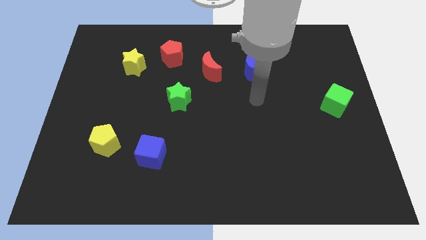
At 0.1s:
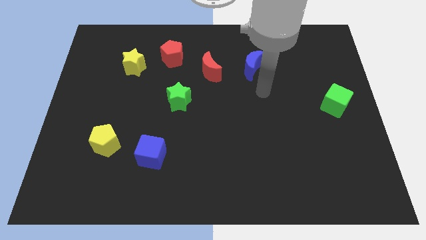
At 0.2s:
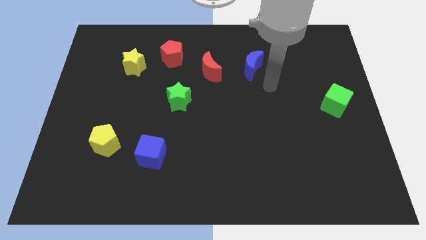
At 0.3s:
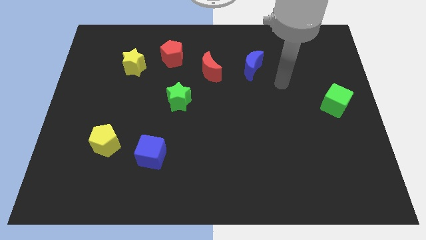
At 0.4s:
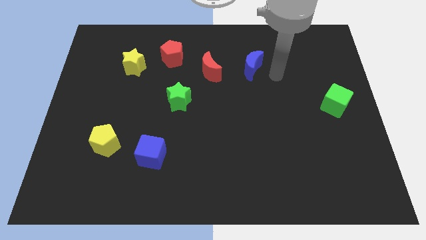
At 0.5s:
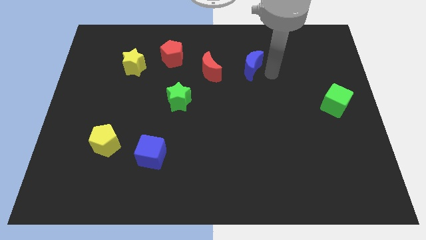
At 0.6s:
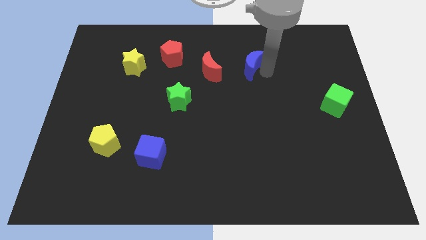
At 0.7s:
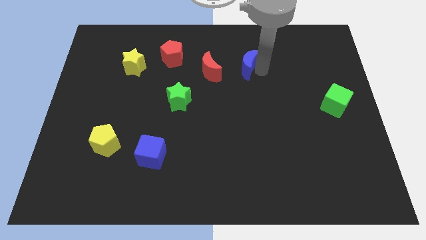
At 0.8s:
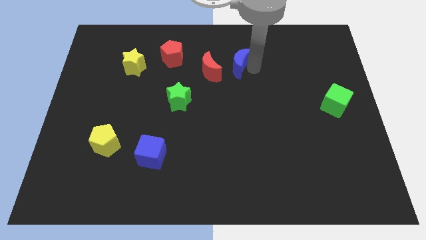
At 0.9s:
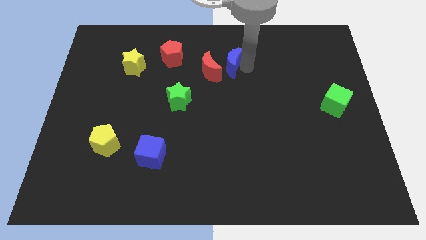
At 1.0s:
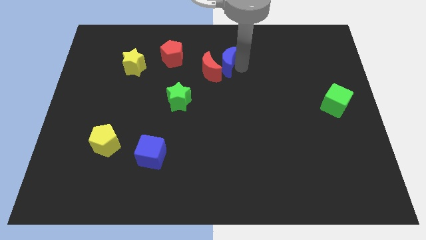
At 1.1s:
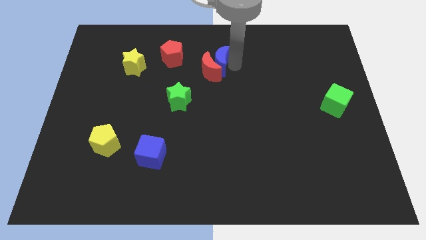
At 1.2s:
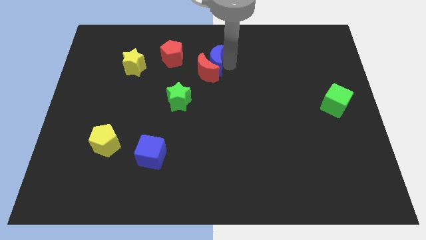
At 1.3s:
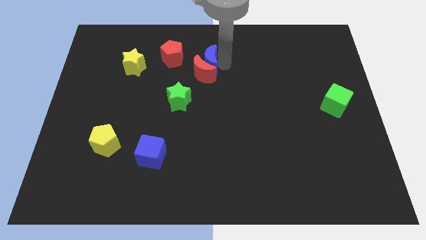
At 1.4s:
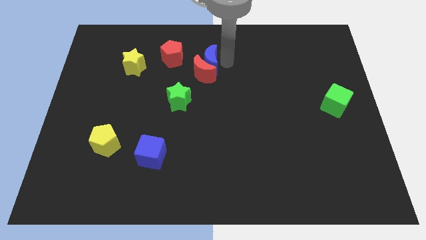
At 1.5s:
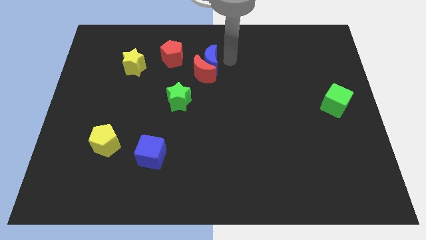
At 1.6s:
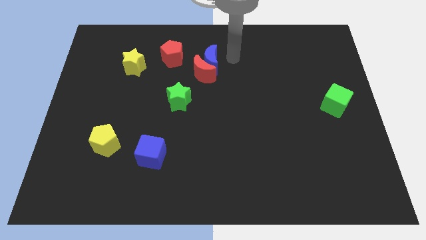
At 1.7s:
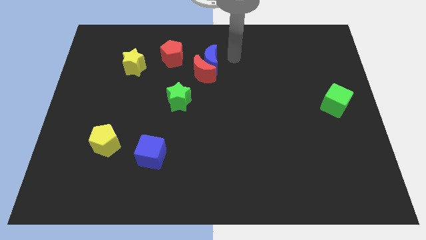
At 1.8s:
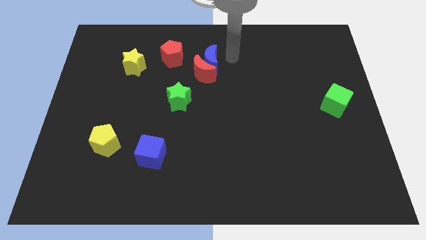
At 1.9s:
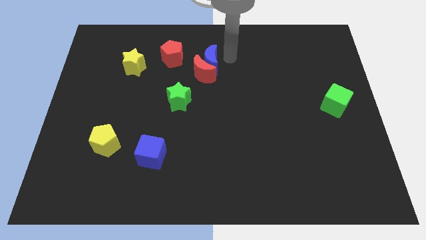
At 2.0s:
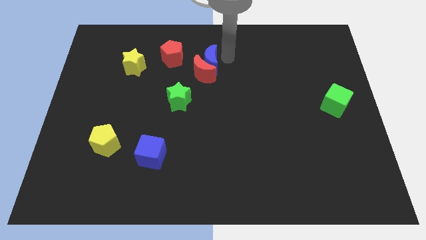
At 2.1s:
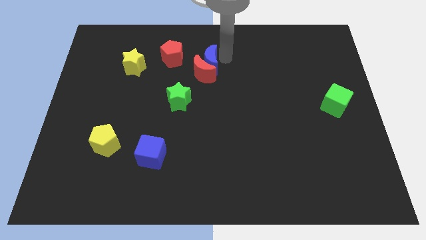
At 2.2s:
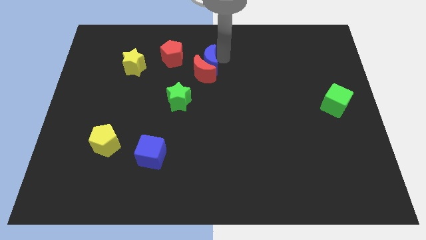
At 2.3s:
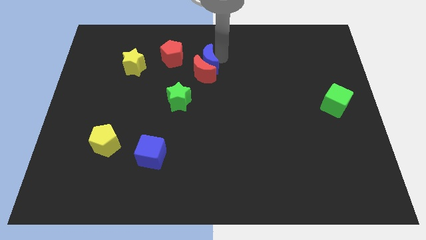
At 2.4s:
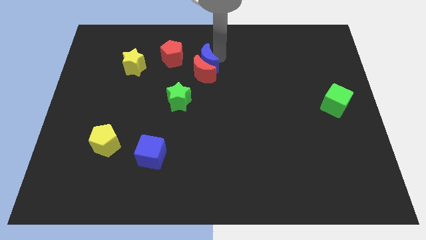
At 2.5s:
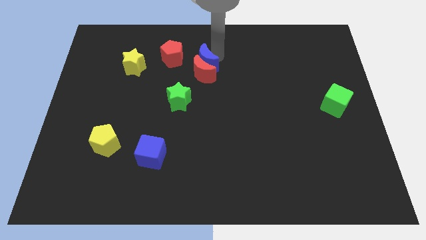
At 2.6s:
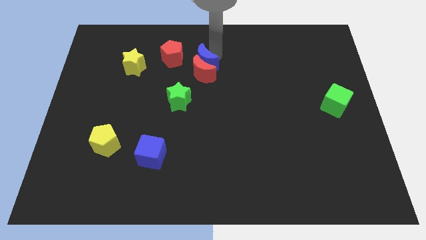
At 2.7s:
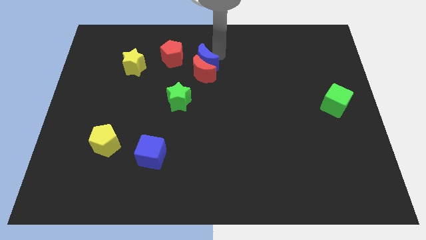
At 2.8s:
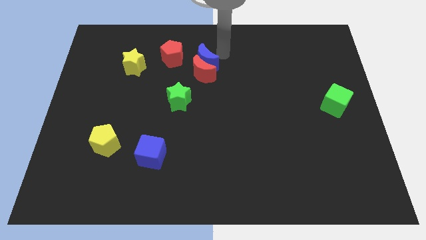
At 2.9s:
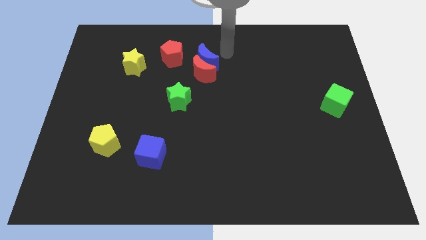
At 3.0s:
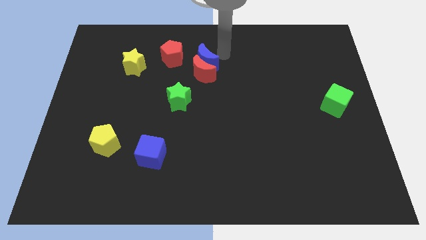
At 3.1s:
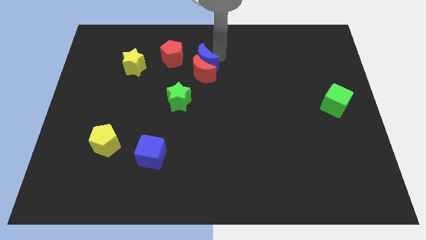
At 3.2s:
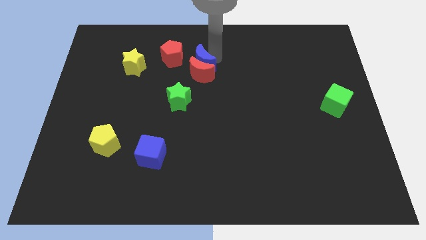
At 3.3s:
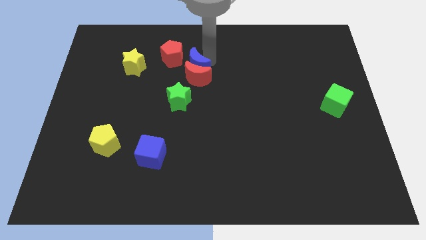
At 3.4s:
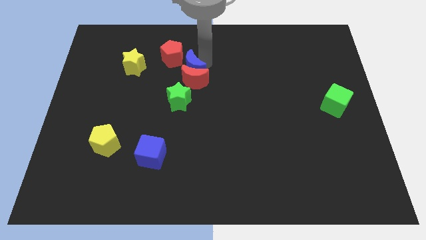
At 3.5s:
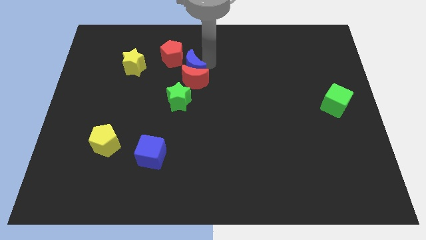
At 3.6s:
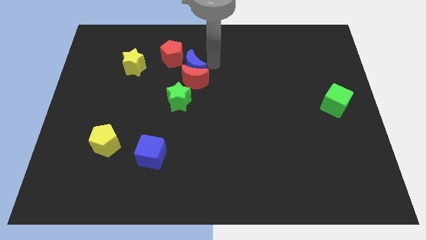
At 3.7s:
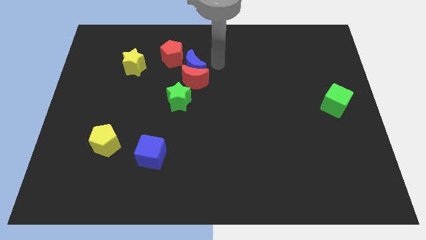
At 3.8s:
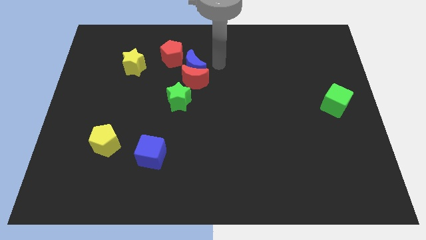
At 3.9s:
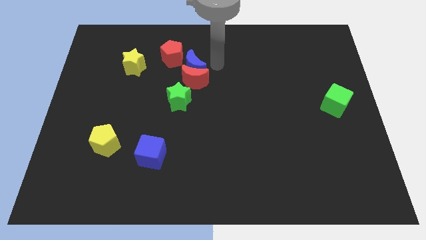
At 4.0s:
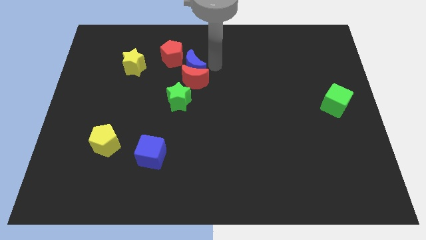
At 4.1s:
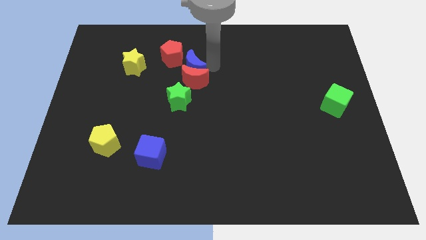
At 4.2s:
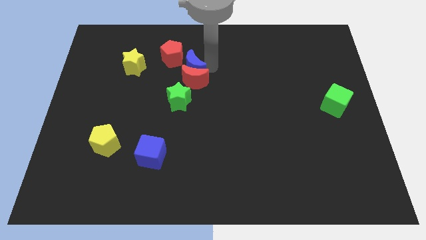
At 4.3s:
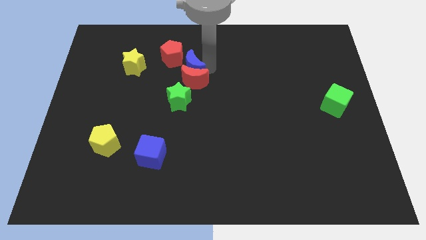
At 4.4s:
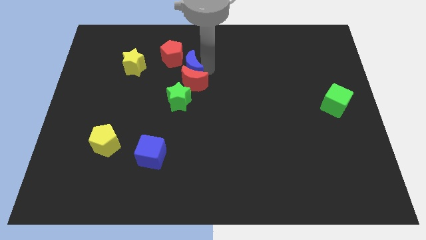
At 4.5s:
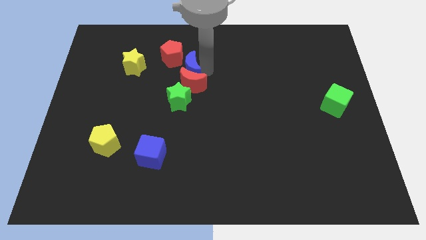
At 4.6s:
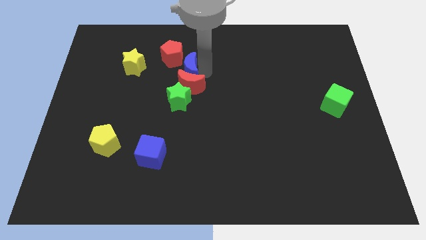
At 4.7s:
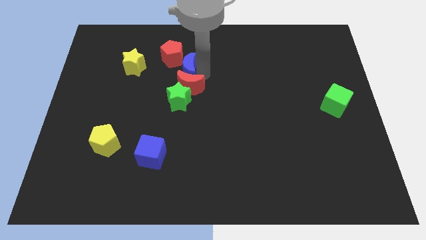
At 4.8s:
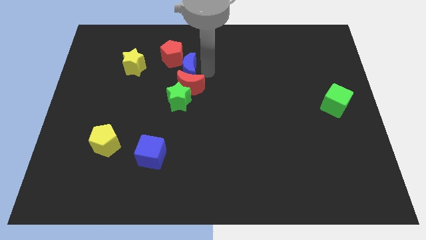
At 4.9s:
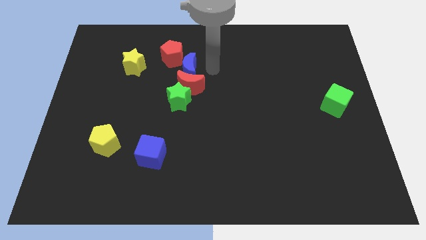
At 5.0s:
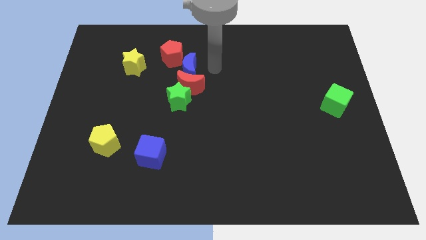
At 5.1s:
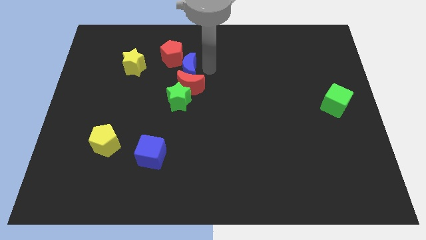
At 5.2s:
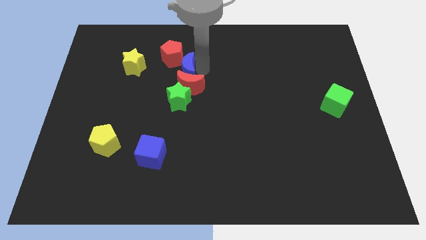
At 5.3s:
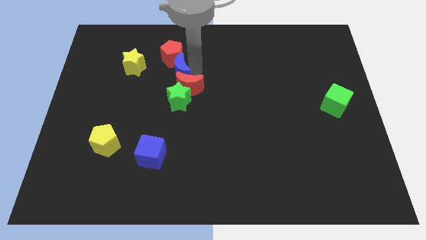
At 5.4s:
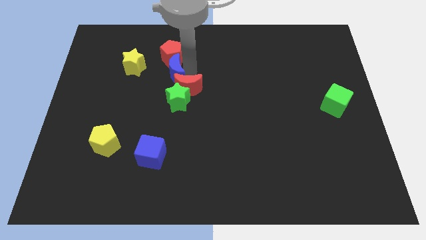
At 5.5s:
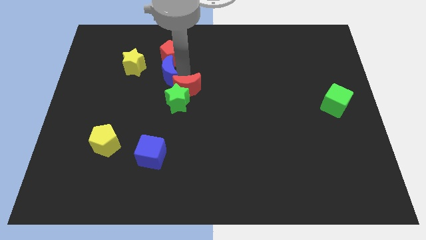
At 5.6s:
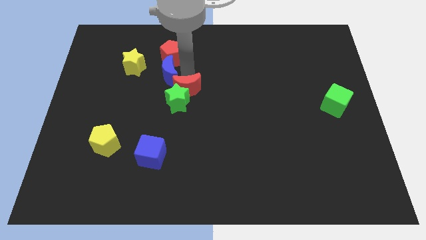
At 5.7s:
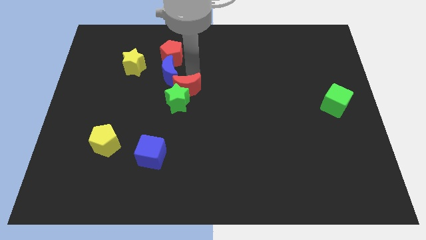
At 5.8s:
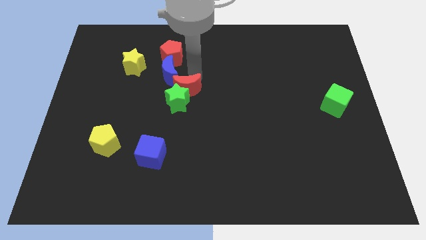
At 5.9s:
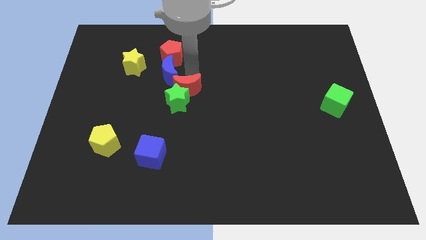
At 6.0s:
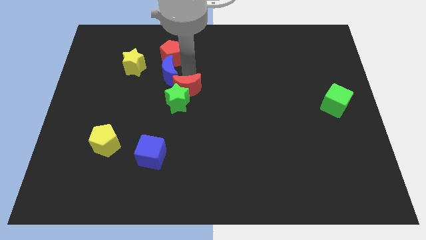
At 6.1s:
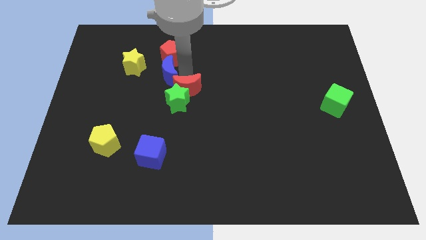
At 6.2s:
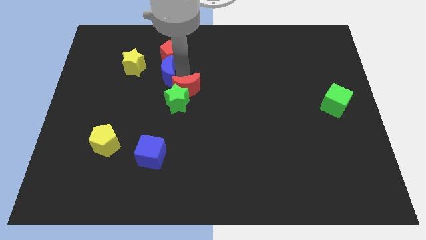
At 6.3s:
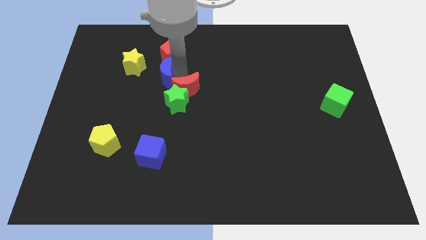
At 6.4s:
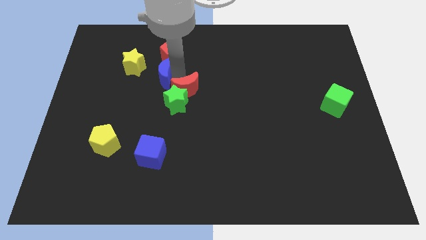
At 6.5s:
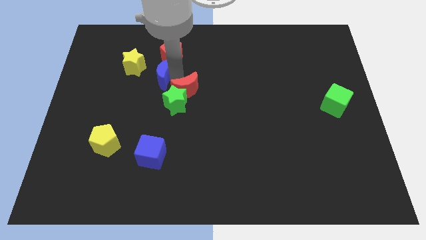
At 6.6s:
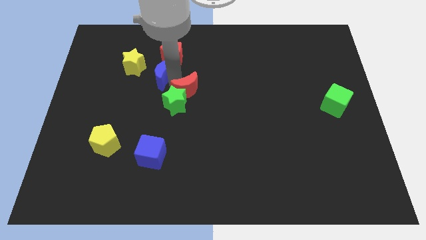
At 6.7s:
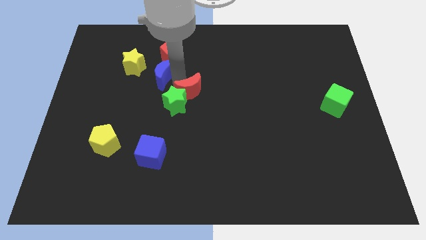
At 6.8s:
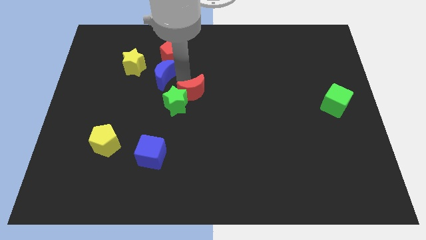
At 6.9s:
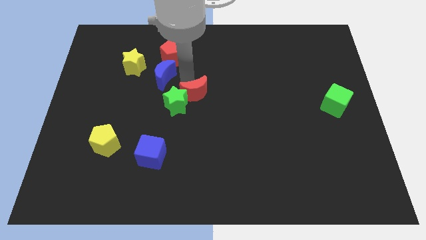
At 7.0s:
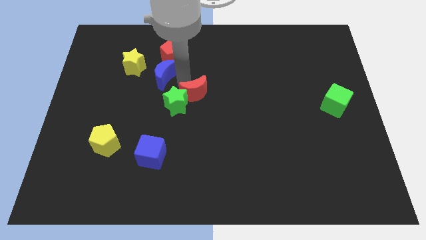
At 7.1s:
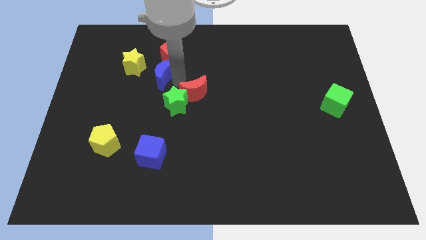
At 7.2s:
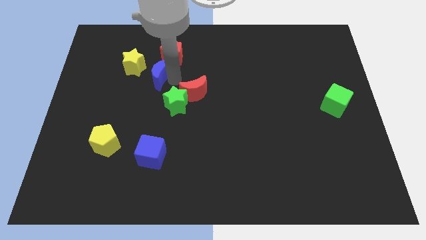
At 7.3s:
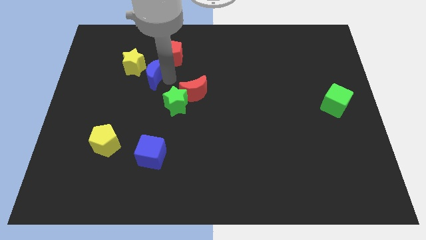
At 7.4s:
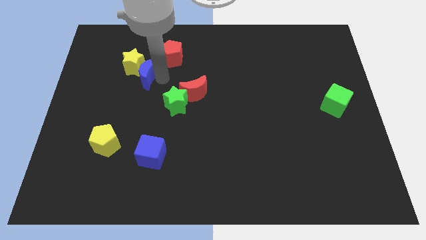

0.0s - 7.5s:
put the blue moon close to the yellow star

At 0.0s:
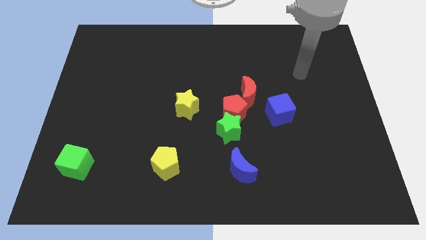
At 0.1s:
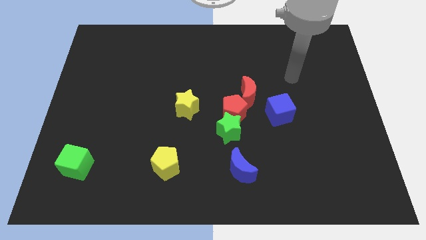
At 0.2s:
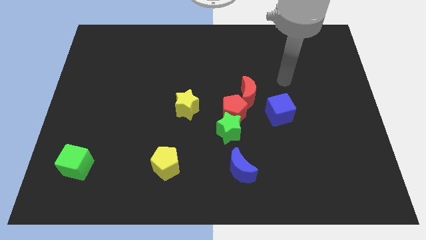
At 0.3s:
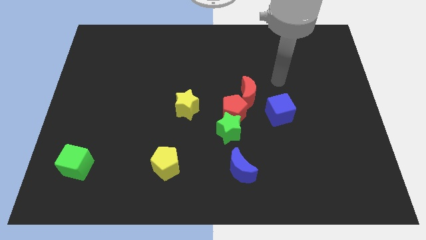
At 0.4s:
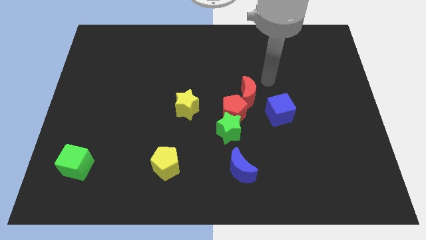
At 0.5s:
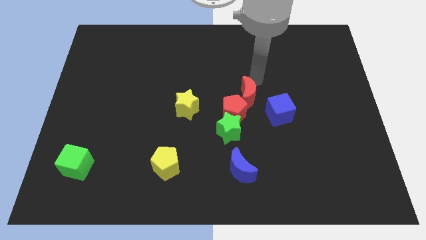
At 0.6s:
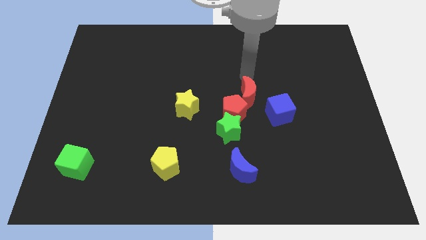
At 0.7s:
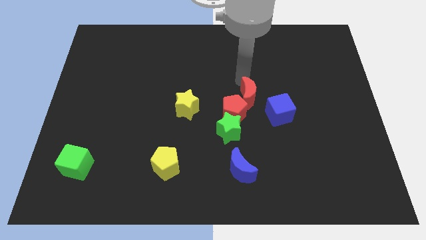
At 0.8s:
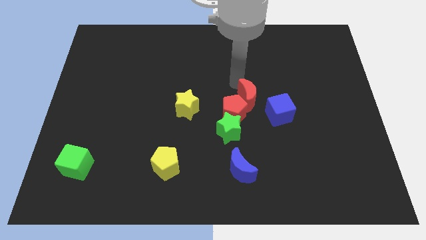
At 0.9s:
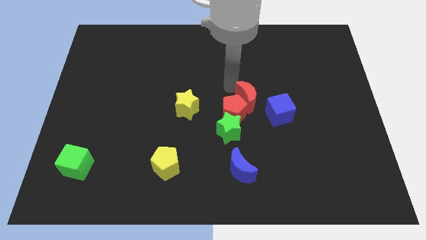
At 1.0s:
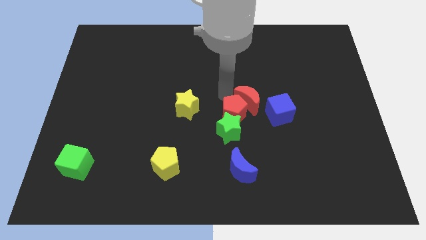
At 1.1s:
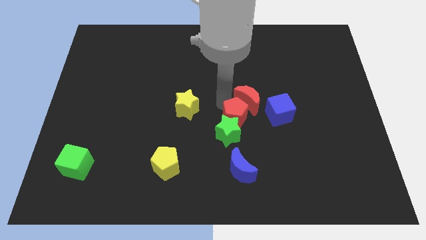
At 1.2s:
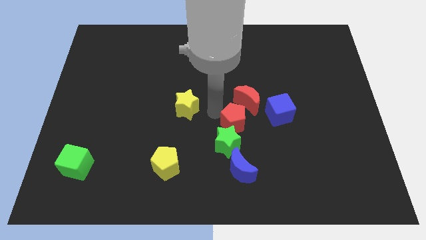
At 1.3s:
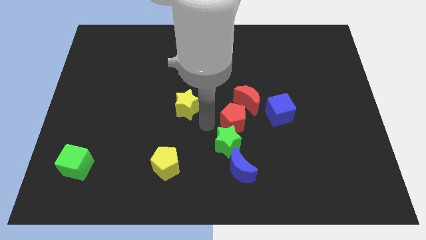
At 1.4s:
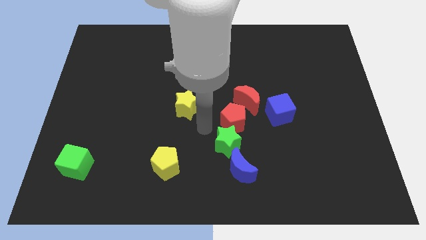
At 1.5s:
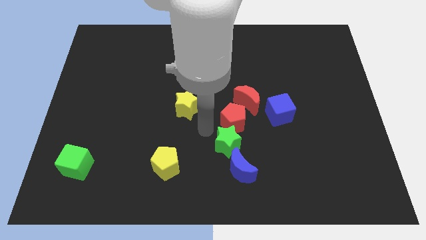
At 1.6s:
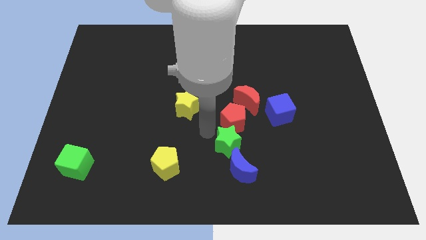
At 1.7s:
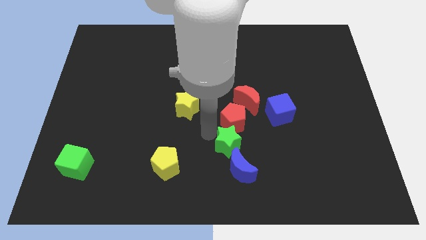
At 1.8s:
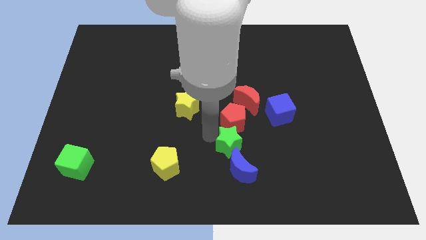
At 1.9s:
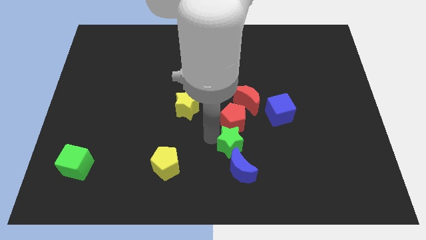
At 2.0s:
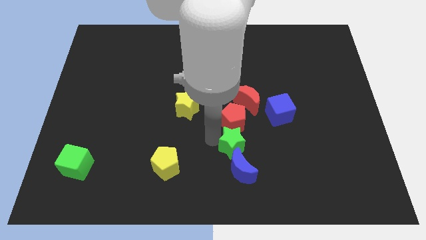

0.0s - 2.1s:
push the green star towards the blue moon
